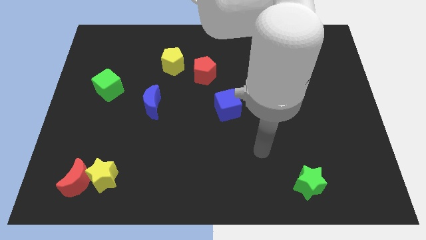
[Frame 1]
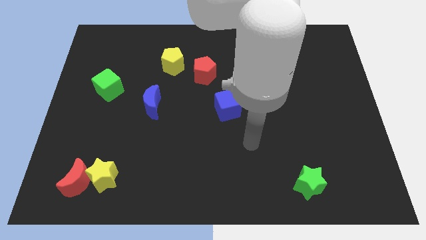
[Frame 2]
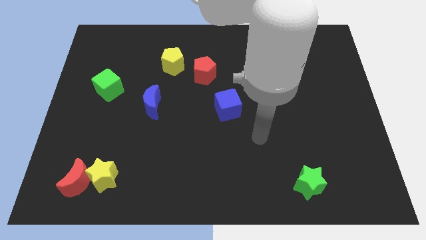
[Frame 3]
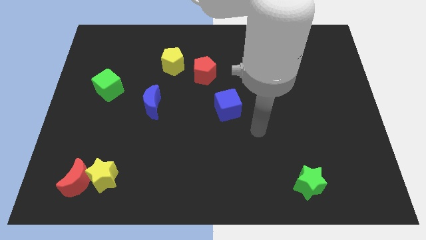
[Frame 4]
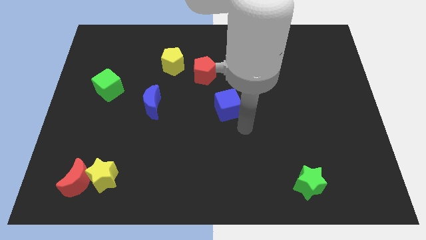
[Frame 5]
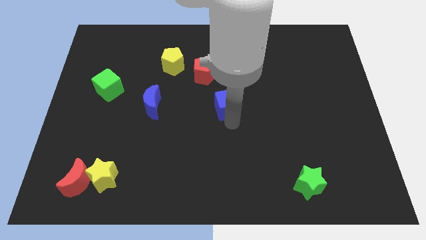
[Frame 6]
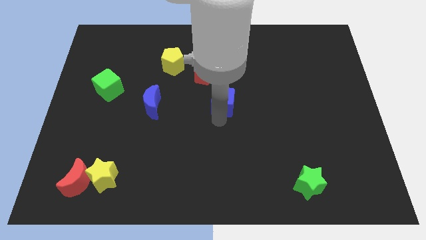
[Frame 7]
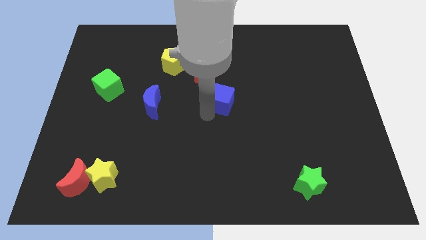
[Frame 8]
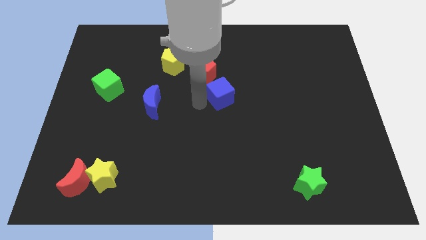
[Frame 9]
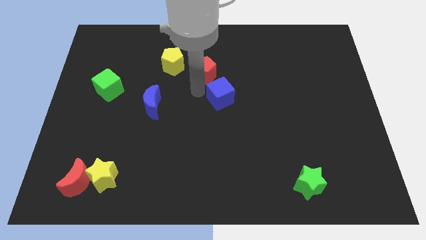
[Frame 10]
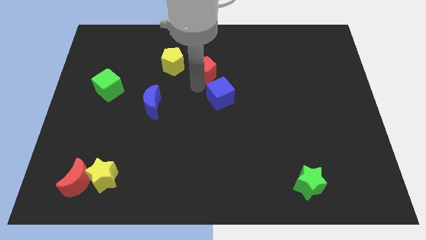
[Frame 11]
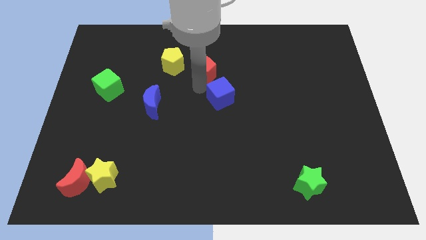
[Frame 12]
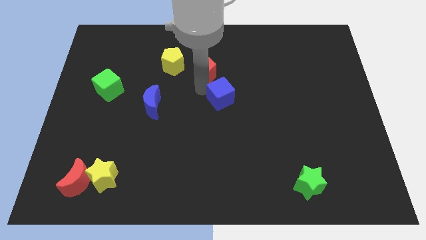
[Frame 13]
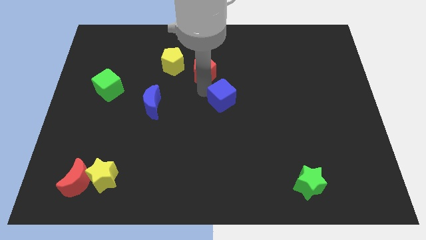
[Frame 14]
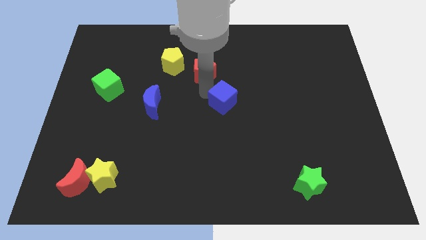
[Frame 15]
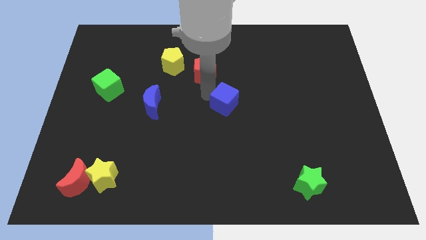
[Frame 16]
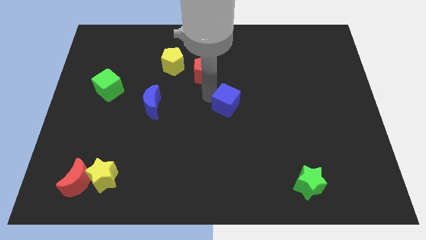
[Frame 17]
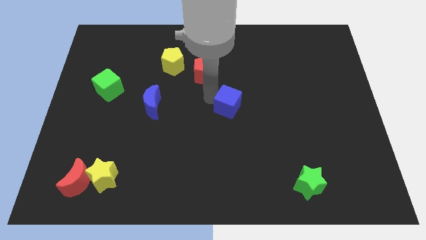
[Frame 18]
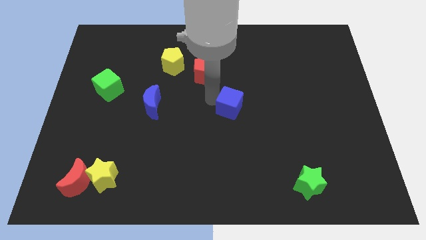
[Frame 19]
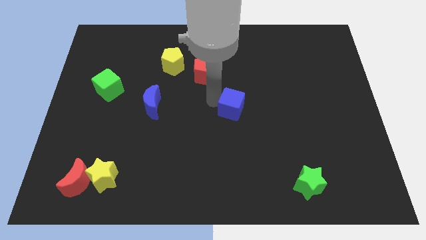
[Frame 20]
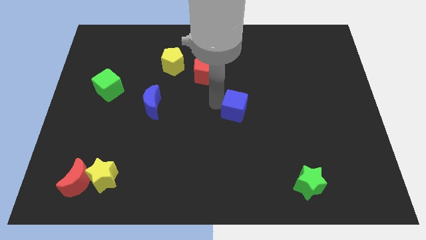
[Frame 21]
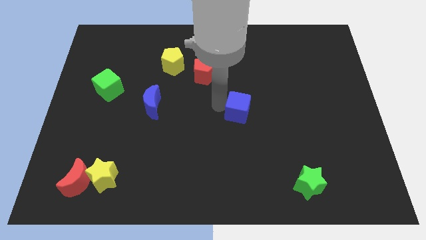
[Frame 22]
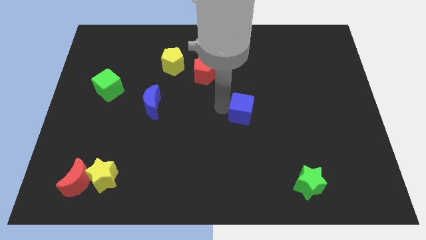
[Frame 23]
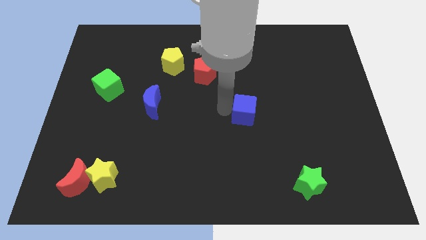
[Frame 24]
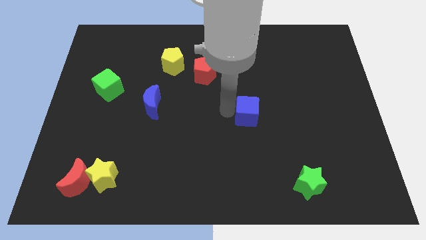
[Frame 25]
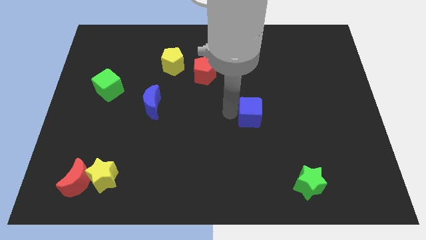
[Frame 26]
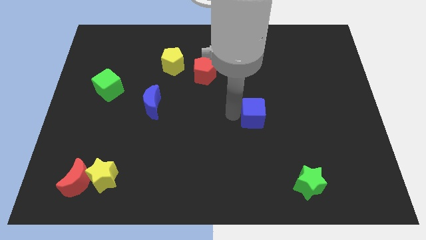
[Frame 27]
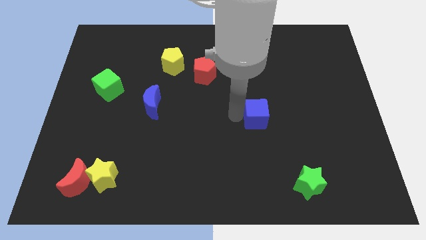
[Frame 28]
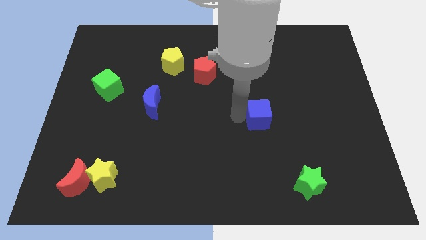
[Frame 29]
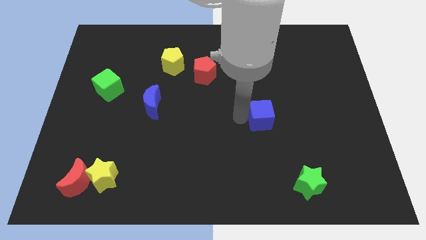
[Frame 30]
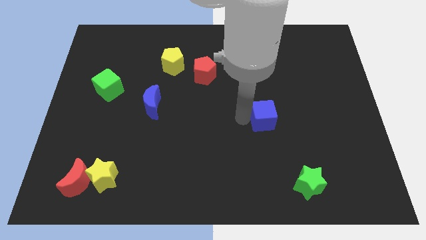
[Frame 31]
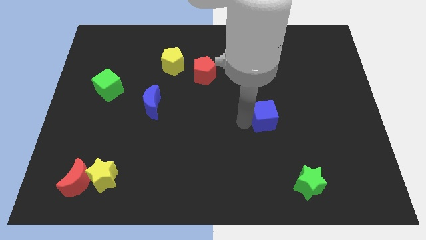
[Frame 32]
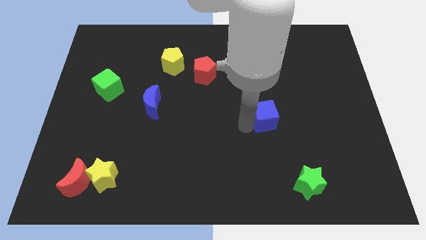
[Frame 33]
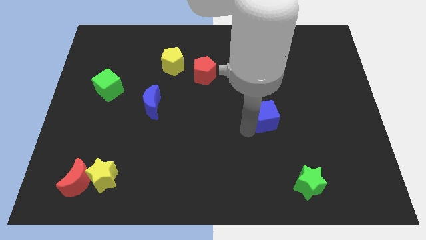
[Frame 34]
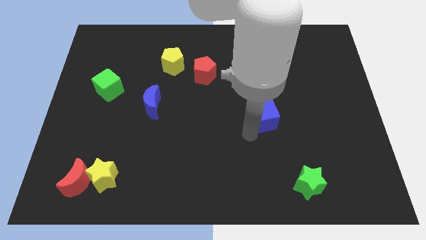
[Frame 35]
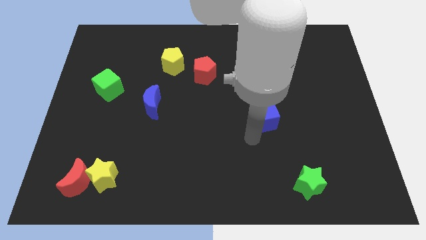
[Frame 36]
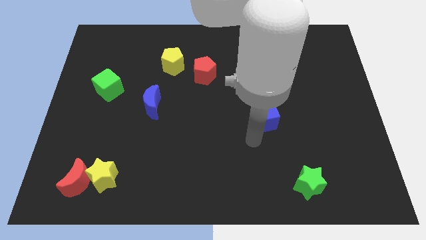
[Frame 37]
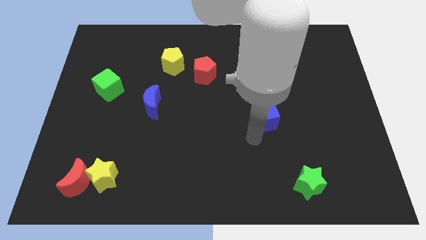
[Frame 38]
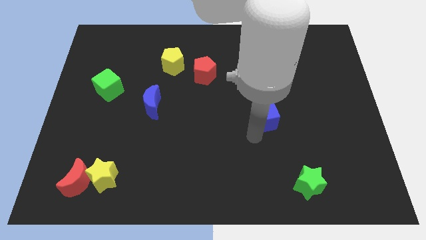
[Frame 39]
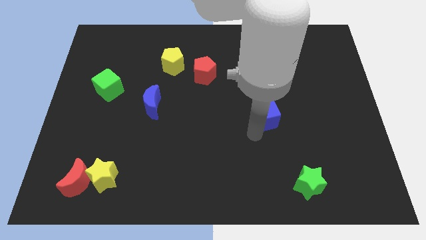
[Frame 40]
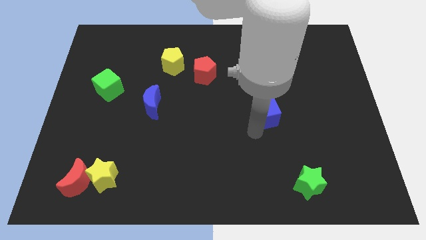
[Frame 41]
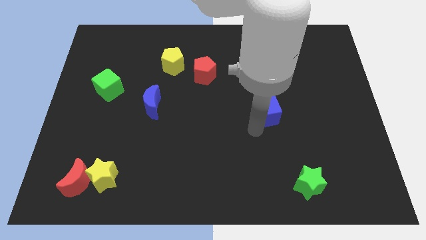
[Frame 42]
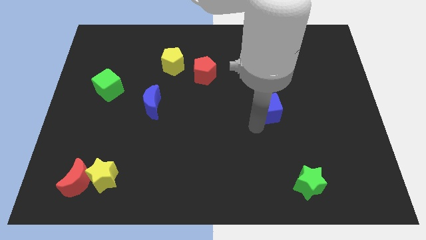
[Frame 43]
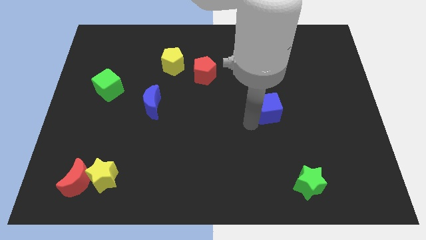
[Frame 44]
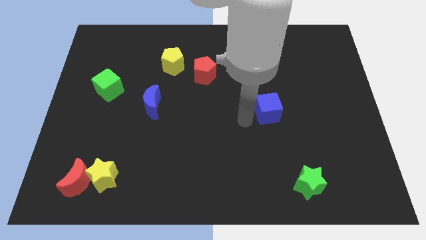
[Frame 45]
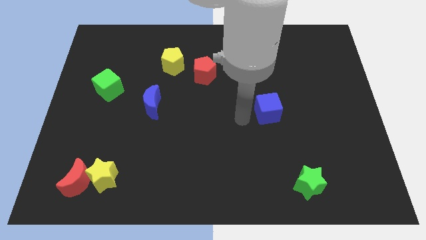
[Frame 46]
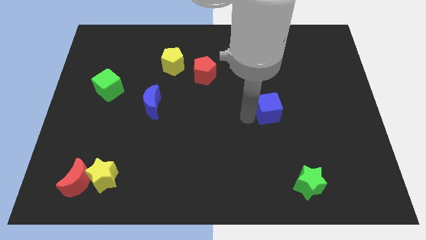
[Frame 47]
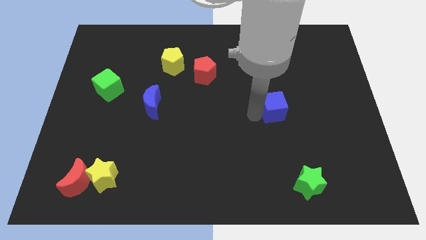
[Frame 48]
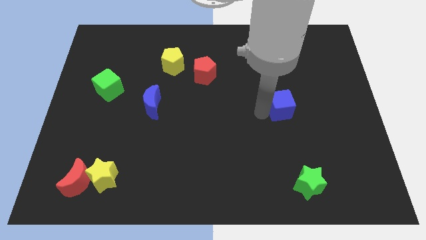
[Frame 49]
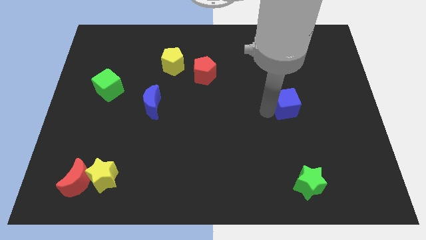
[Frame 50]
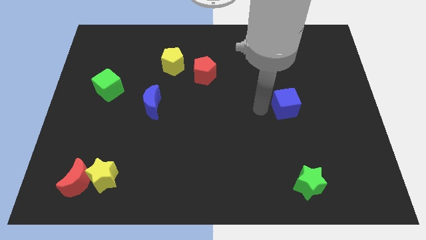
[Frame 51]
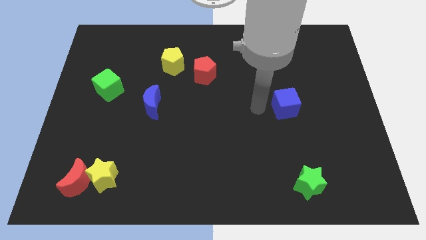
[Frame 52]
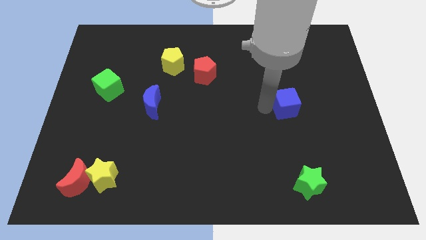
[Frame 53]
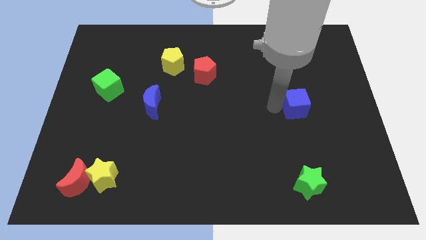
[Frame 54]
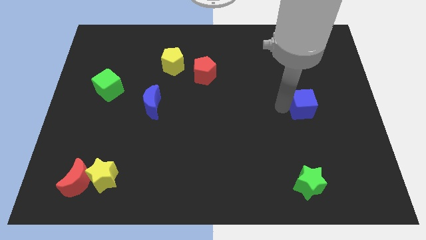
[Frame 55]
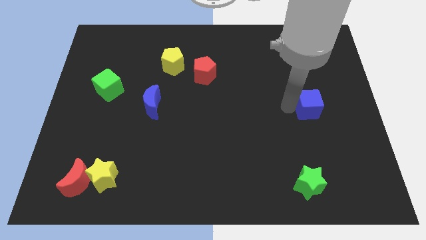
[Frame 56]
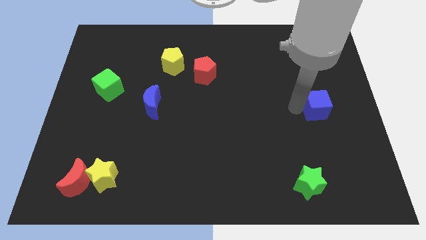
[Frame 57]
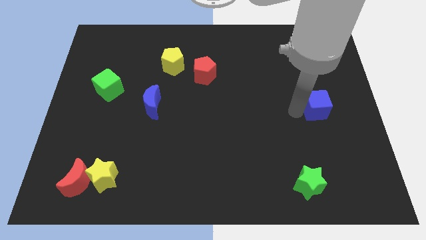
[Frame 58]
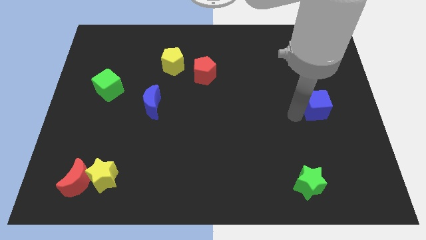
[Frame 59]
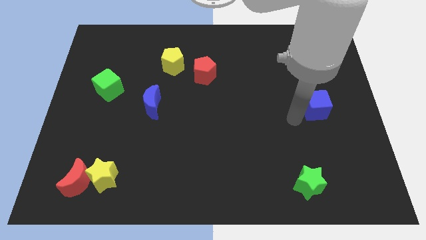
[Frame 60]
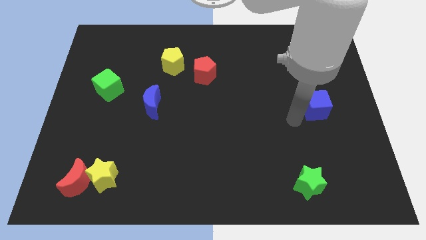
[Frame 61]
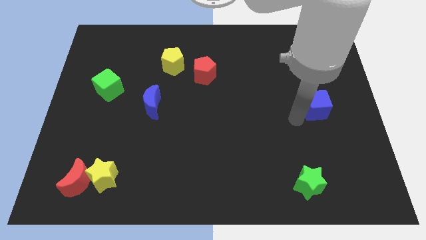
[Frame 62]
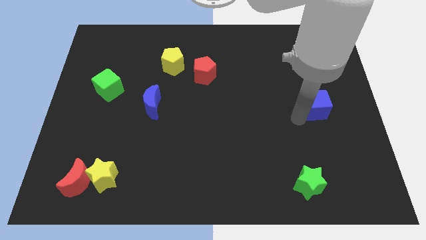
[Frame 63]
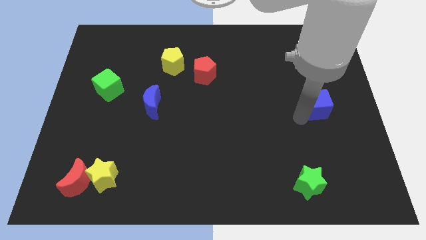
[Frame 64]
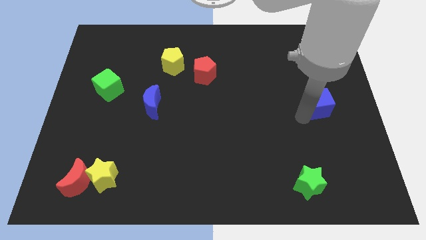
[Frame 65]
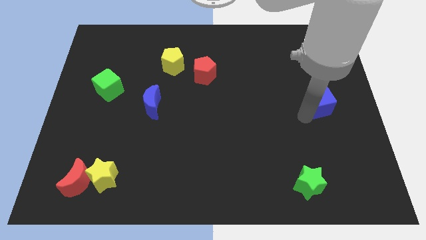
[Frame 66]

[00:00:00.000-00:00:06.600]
put the blue cube to the right side of the board
